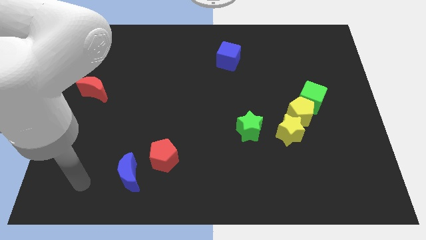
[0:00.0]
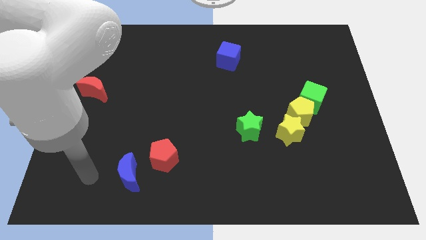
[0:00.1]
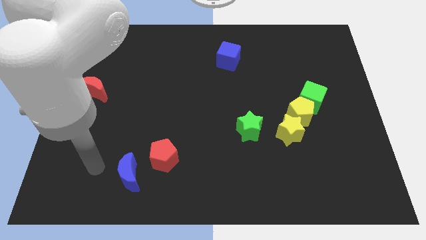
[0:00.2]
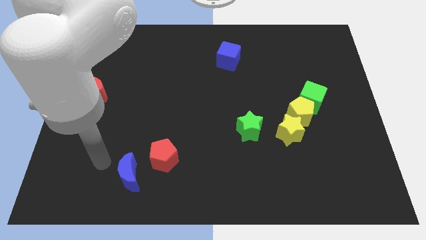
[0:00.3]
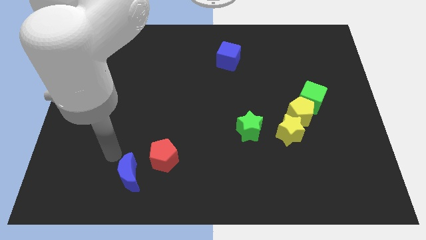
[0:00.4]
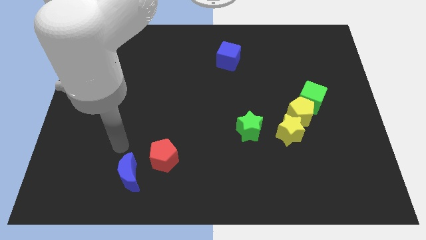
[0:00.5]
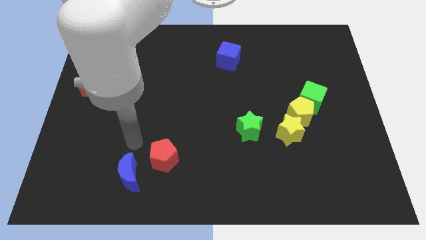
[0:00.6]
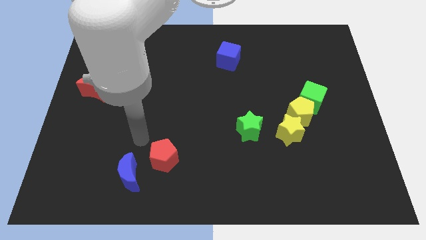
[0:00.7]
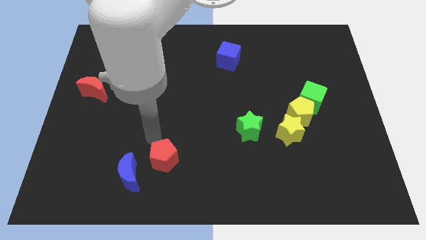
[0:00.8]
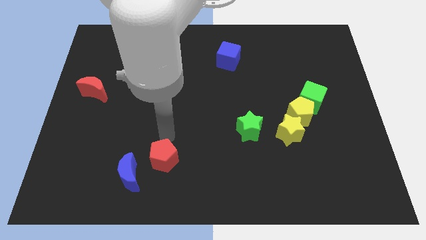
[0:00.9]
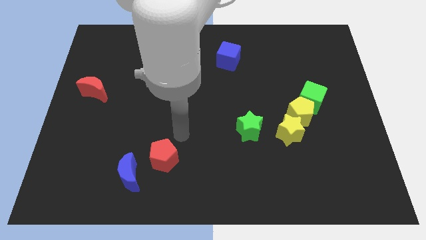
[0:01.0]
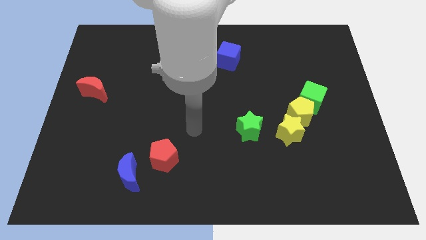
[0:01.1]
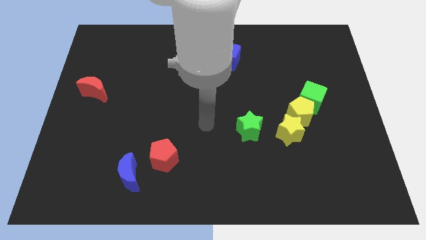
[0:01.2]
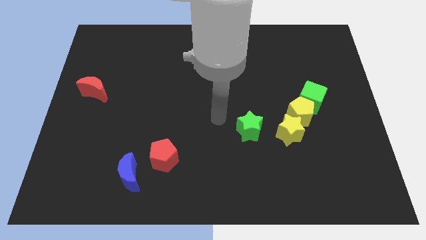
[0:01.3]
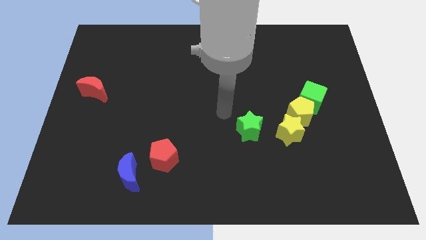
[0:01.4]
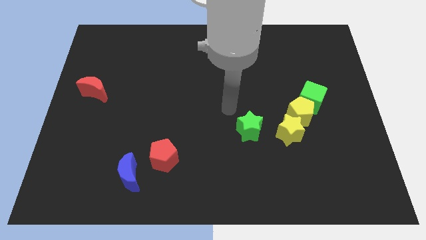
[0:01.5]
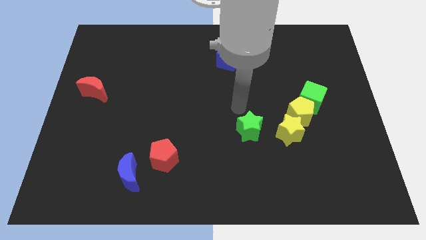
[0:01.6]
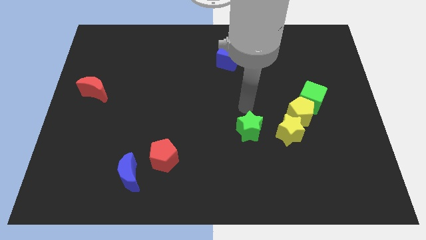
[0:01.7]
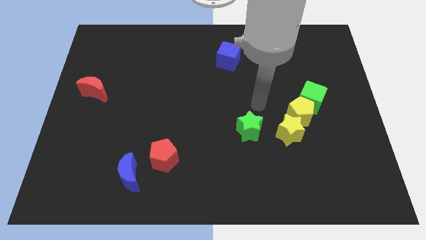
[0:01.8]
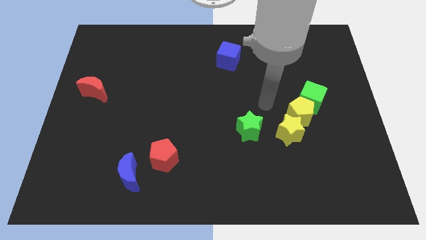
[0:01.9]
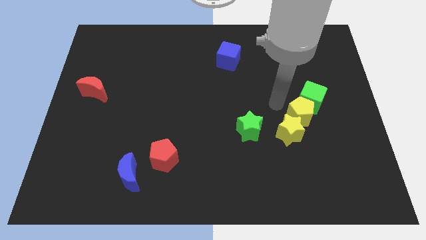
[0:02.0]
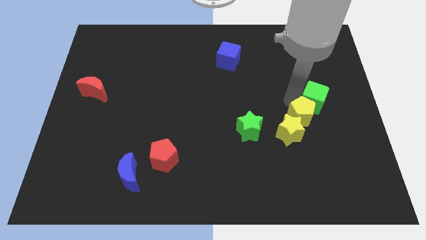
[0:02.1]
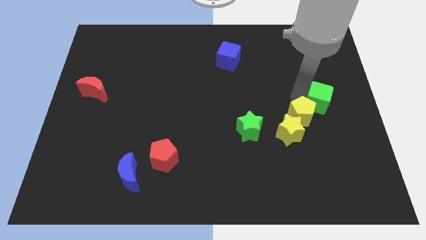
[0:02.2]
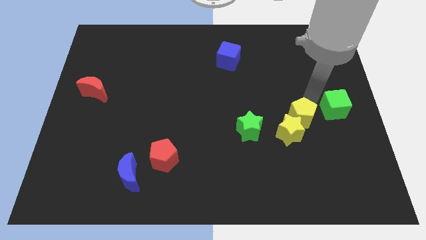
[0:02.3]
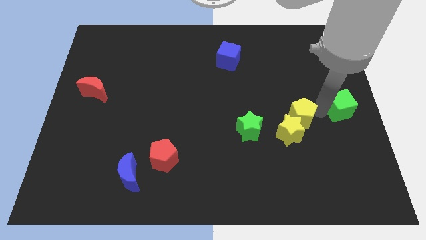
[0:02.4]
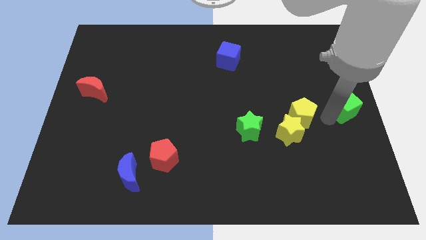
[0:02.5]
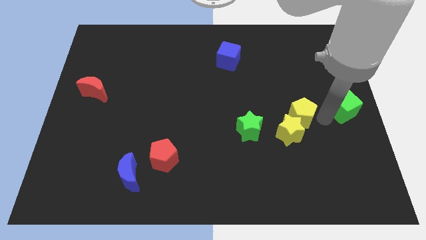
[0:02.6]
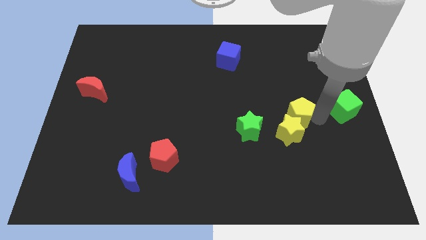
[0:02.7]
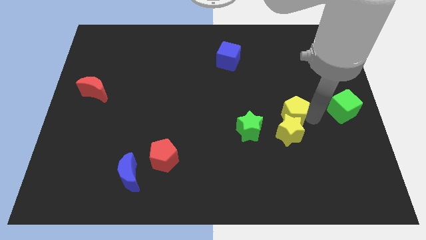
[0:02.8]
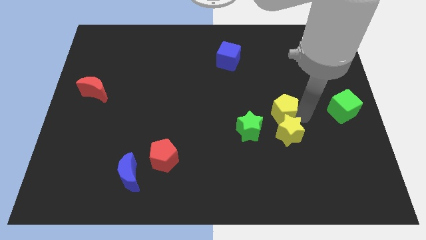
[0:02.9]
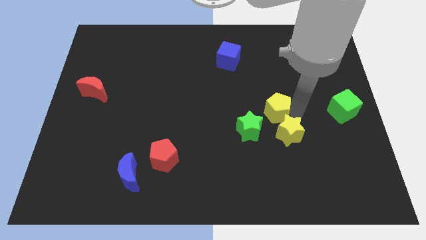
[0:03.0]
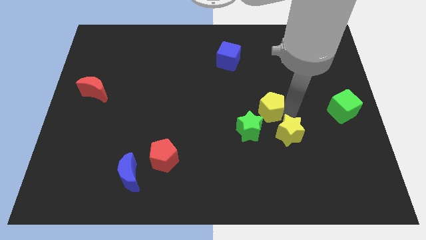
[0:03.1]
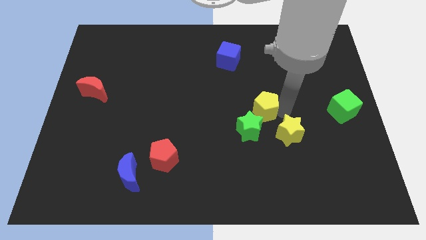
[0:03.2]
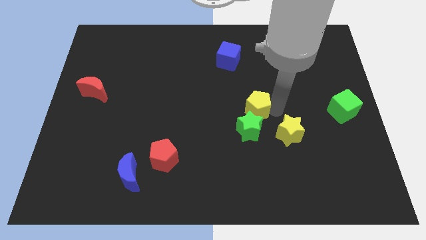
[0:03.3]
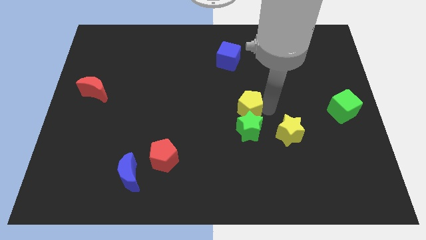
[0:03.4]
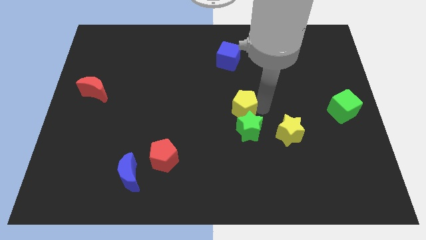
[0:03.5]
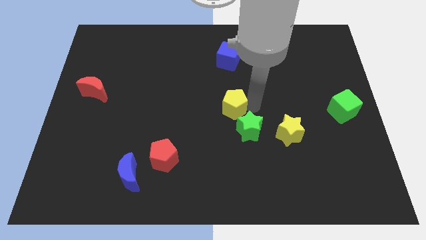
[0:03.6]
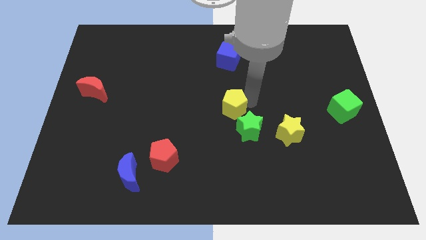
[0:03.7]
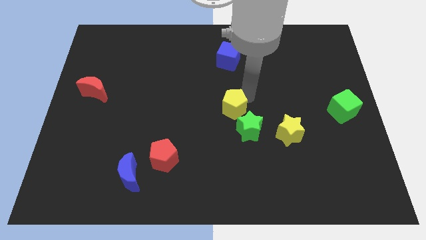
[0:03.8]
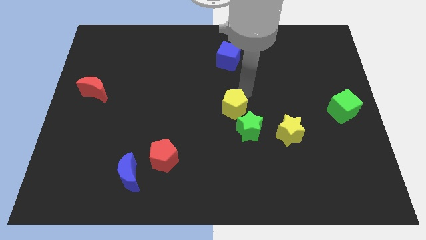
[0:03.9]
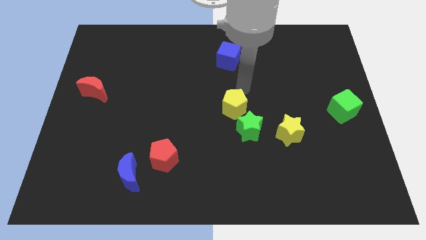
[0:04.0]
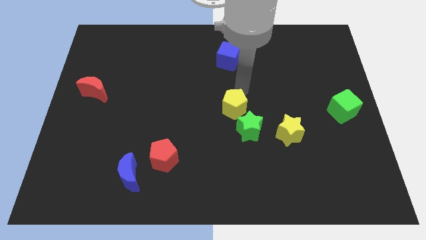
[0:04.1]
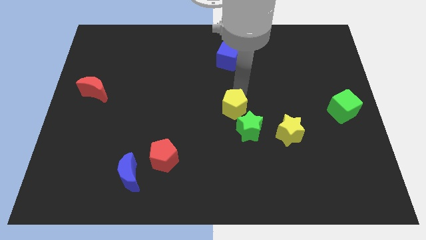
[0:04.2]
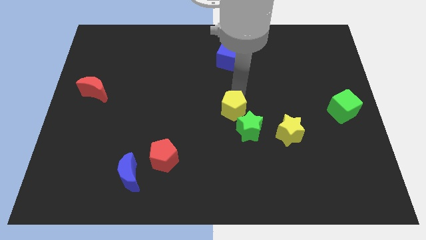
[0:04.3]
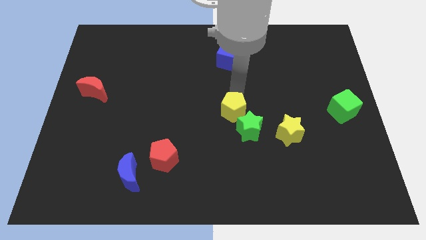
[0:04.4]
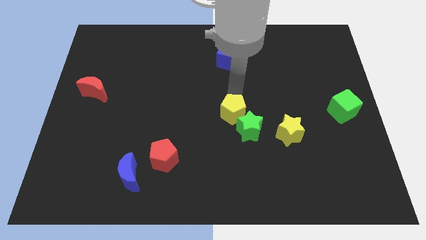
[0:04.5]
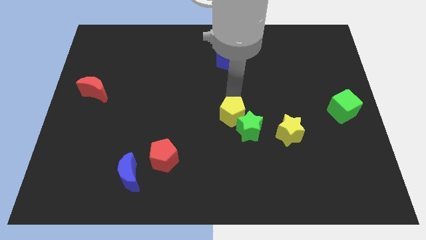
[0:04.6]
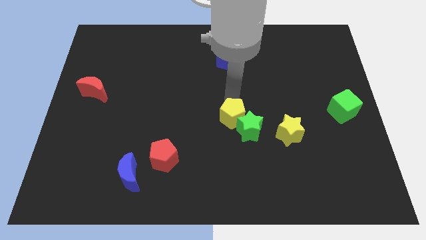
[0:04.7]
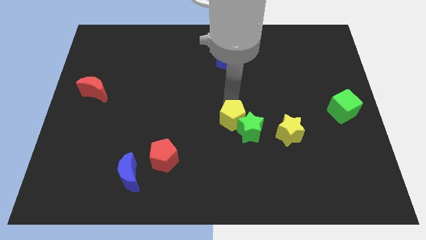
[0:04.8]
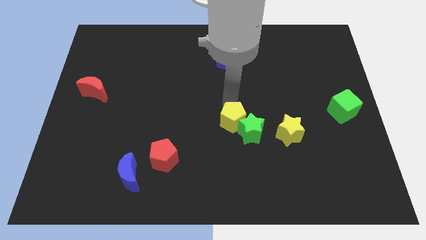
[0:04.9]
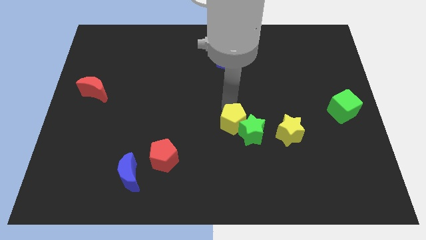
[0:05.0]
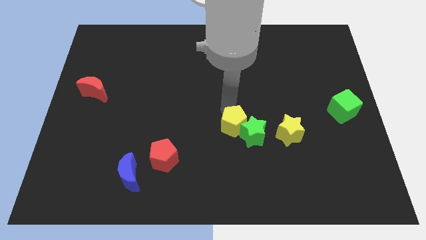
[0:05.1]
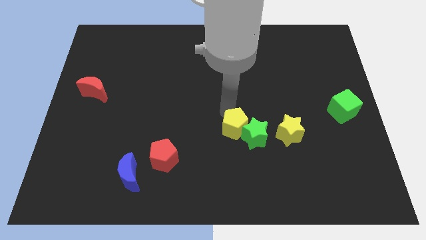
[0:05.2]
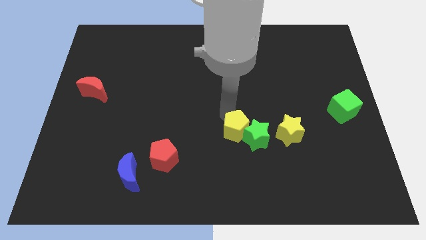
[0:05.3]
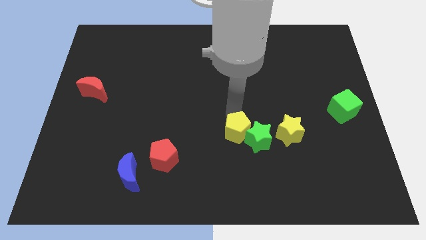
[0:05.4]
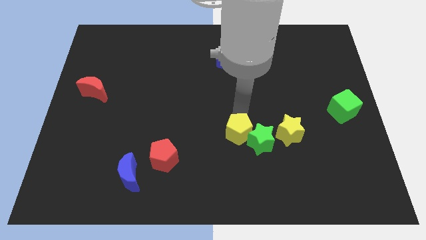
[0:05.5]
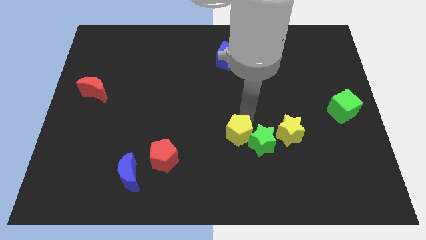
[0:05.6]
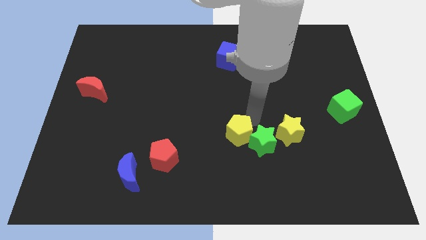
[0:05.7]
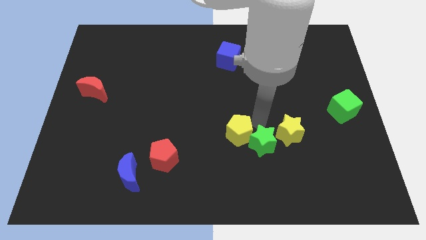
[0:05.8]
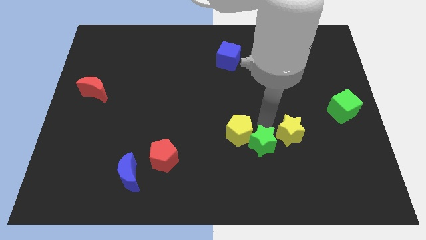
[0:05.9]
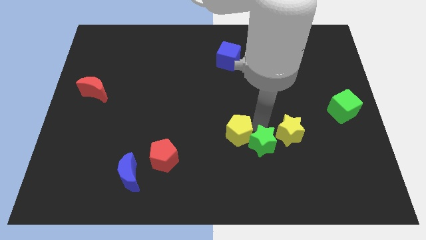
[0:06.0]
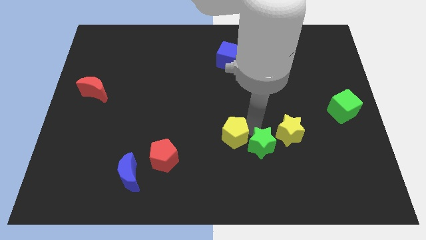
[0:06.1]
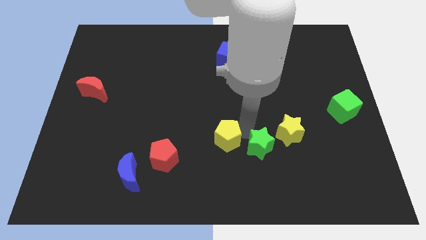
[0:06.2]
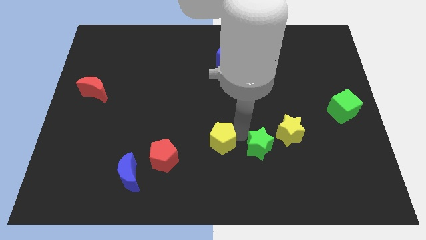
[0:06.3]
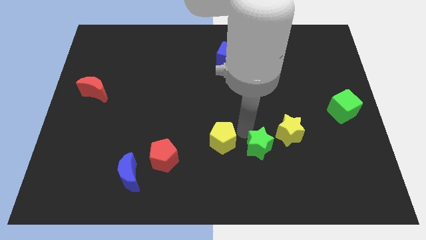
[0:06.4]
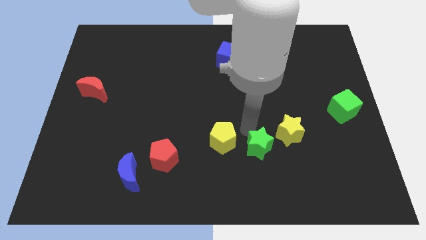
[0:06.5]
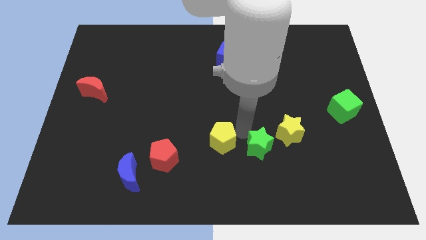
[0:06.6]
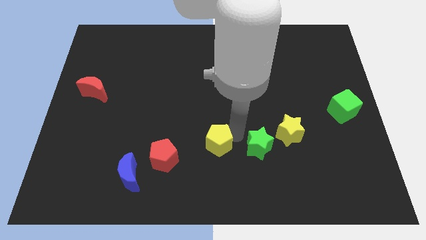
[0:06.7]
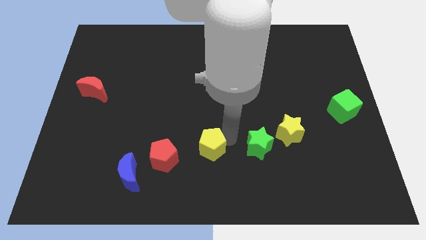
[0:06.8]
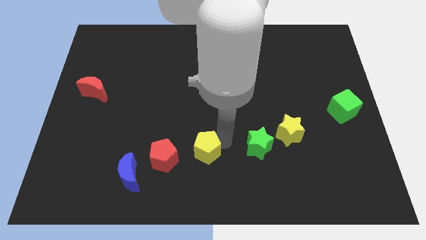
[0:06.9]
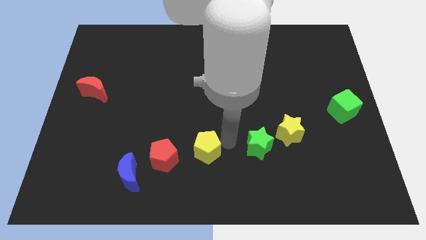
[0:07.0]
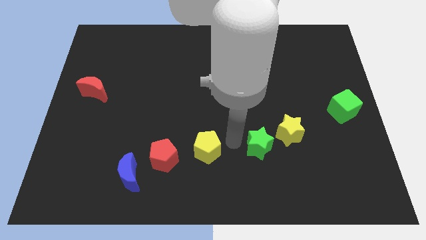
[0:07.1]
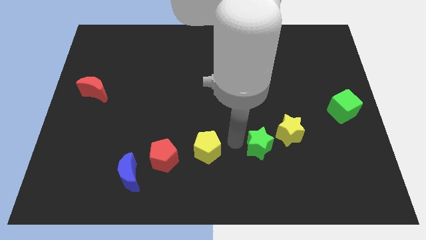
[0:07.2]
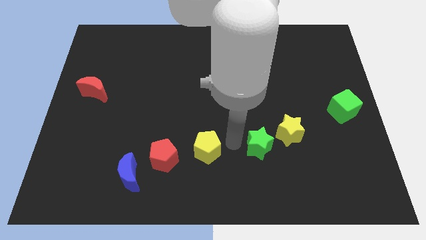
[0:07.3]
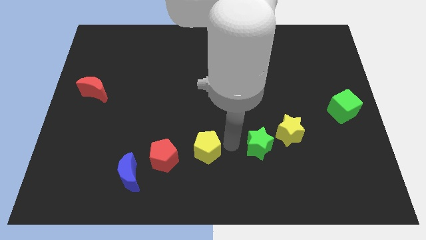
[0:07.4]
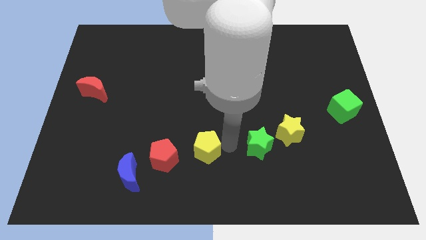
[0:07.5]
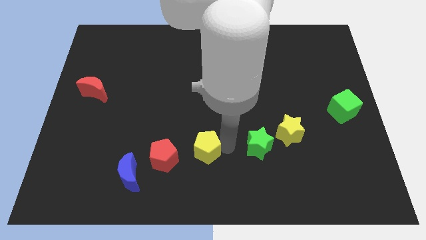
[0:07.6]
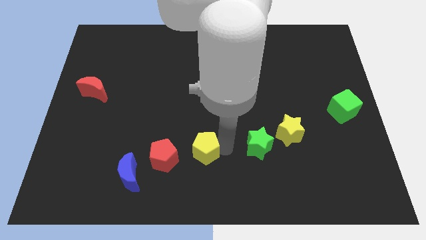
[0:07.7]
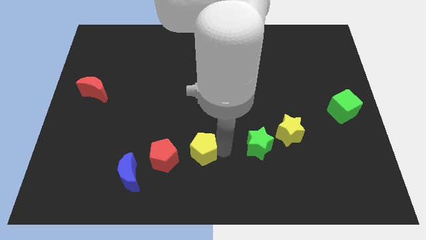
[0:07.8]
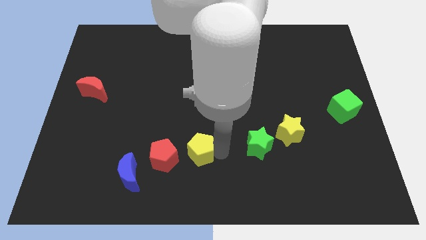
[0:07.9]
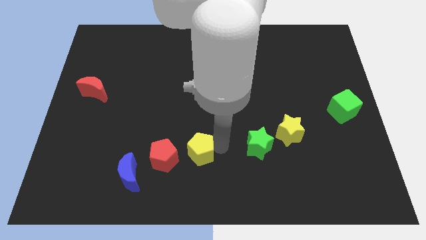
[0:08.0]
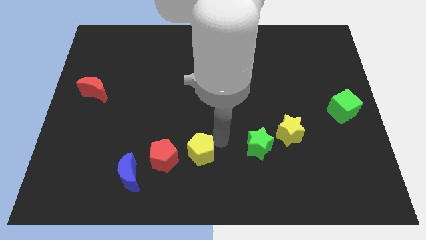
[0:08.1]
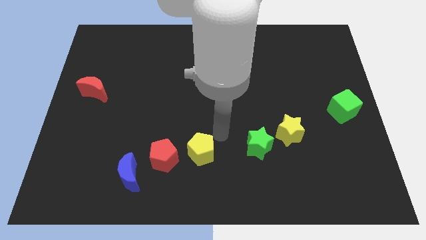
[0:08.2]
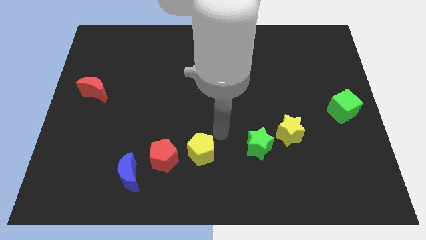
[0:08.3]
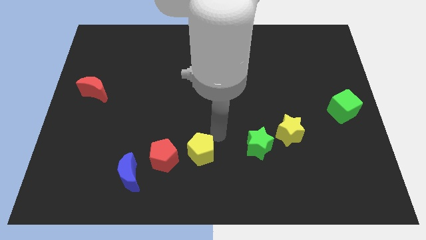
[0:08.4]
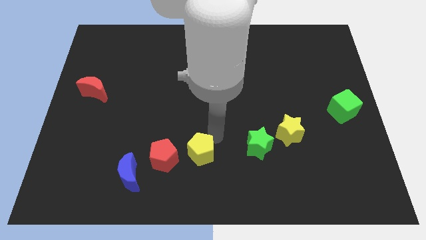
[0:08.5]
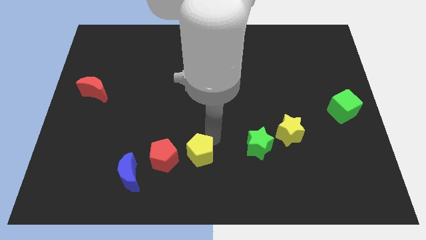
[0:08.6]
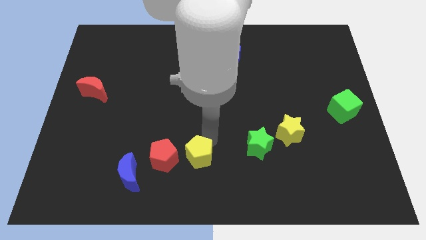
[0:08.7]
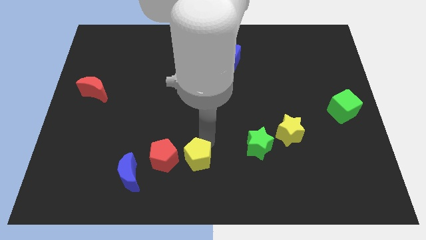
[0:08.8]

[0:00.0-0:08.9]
move the yellow pentagon to the right side of the blue moon
